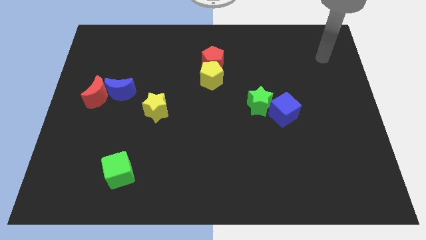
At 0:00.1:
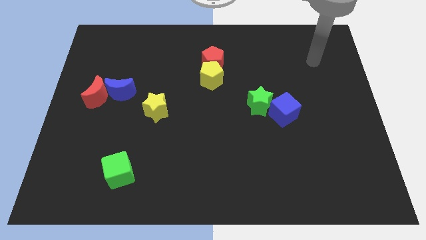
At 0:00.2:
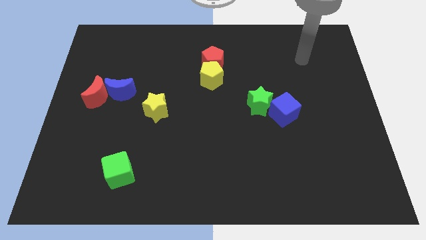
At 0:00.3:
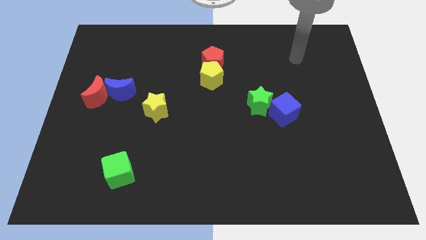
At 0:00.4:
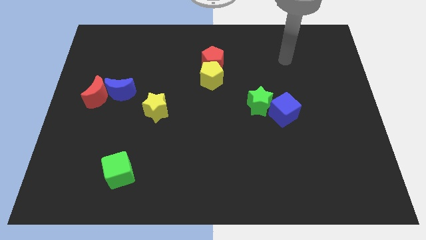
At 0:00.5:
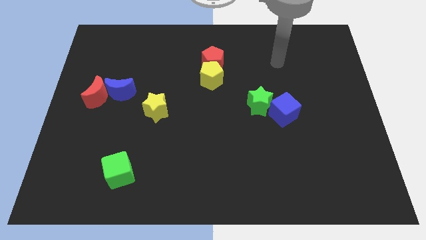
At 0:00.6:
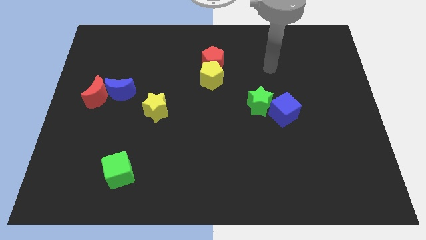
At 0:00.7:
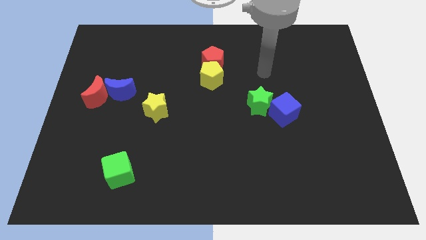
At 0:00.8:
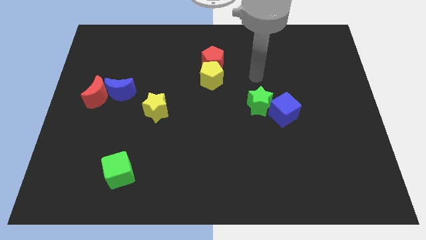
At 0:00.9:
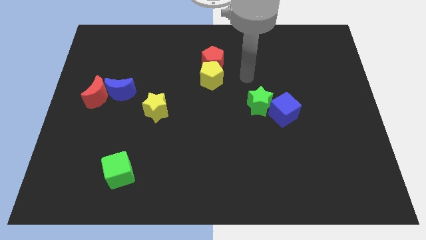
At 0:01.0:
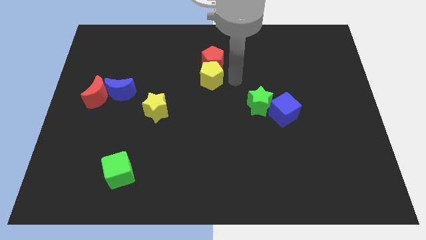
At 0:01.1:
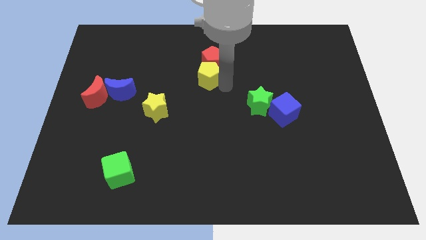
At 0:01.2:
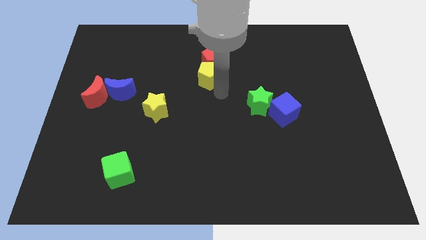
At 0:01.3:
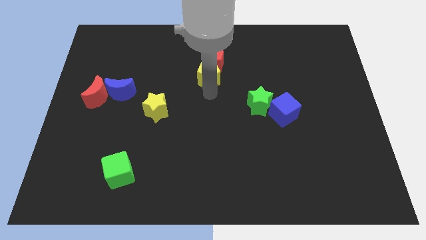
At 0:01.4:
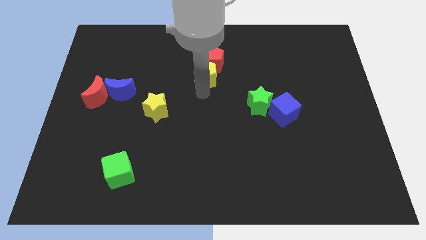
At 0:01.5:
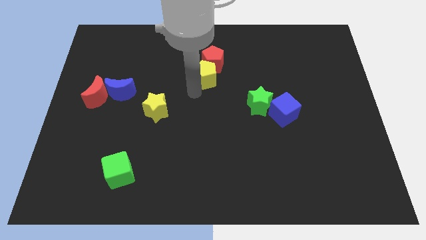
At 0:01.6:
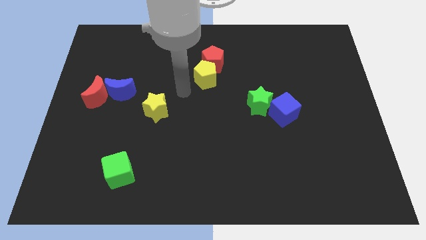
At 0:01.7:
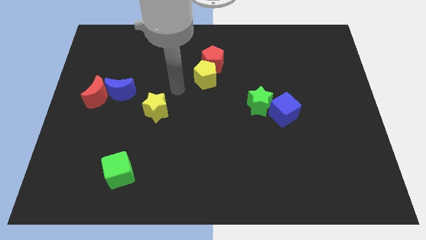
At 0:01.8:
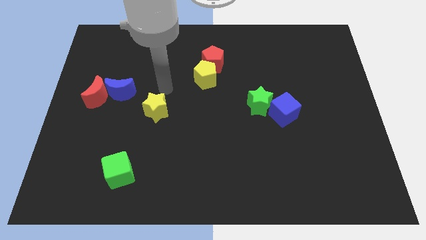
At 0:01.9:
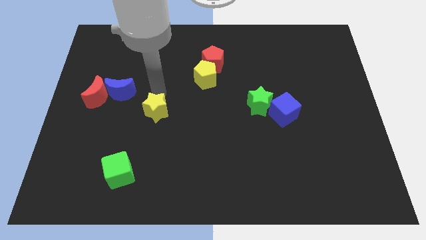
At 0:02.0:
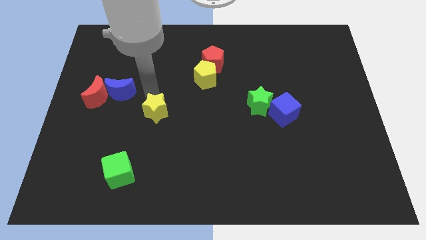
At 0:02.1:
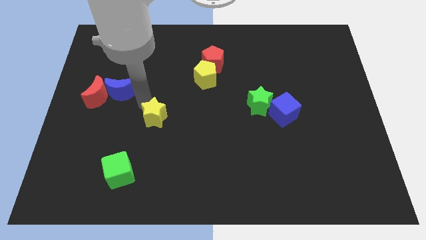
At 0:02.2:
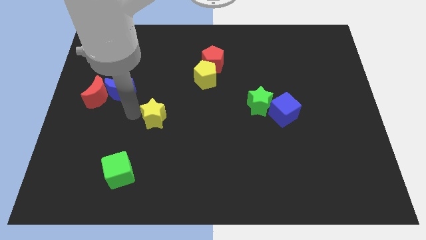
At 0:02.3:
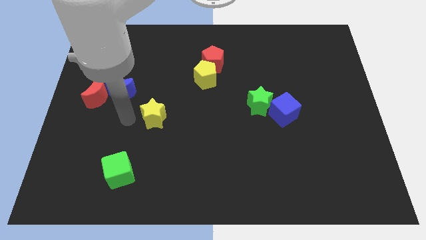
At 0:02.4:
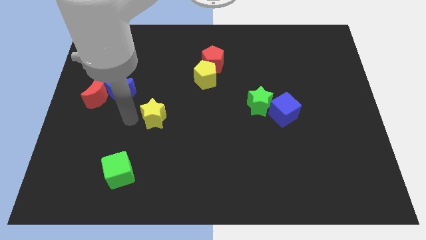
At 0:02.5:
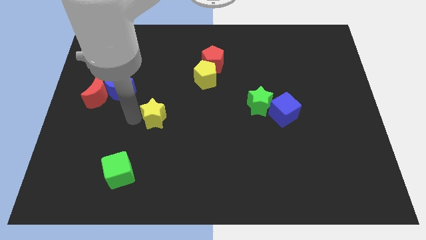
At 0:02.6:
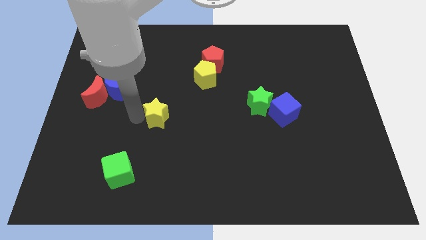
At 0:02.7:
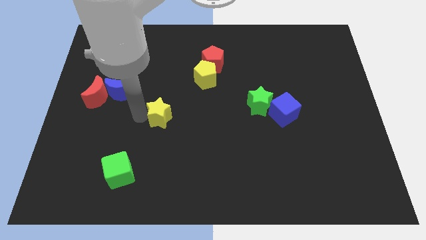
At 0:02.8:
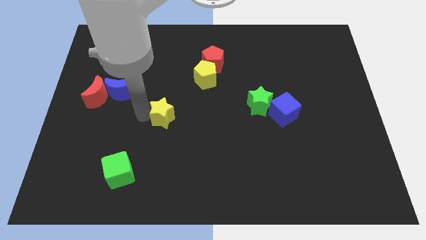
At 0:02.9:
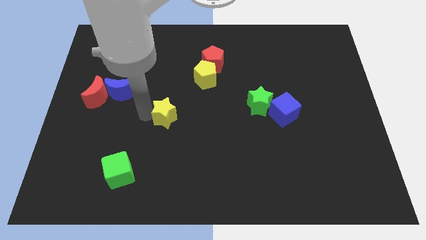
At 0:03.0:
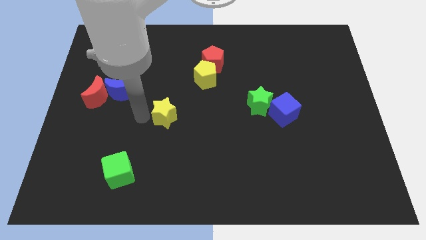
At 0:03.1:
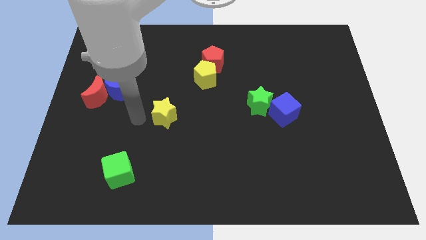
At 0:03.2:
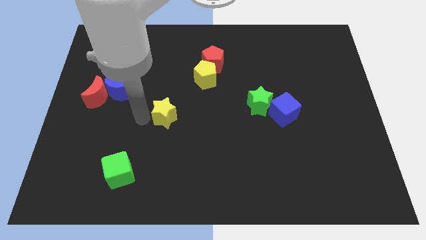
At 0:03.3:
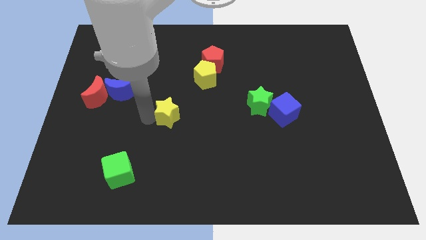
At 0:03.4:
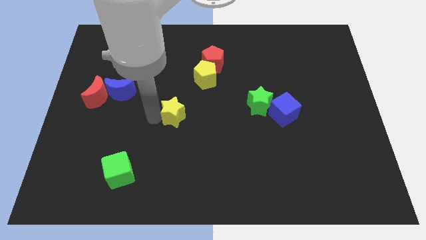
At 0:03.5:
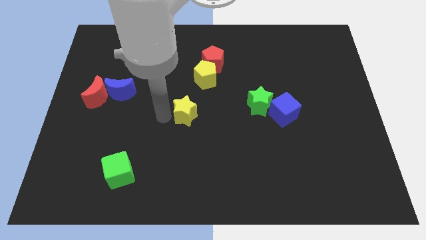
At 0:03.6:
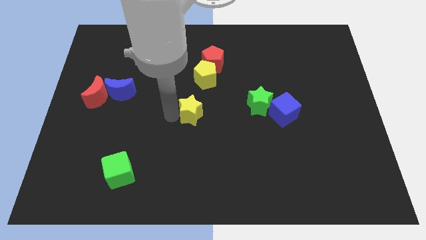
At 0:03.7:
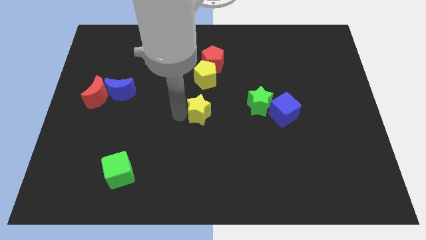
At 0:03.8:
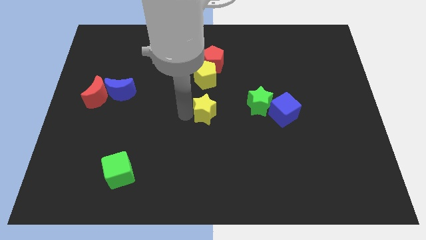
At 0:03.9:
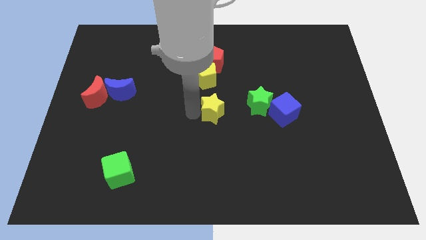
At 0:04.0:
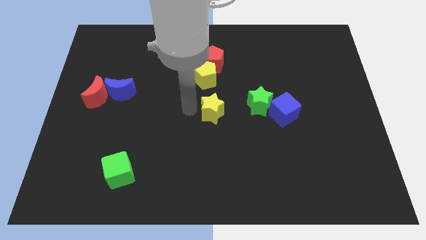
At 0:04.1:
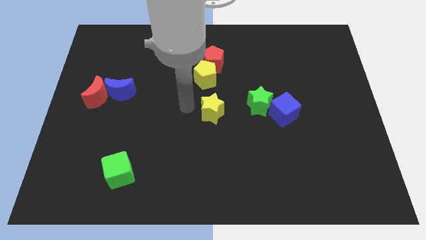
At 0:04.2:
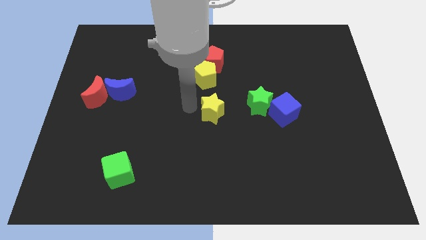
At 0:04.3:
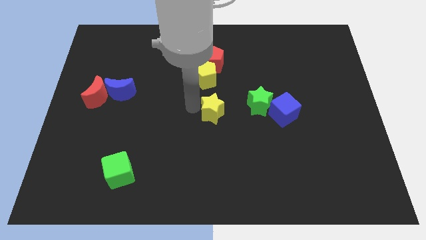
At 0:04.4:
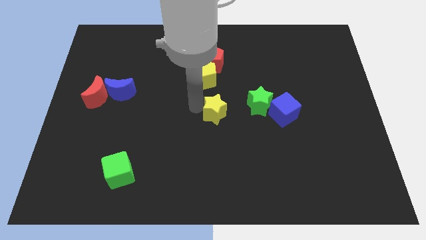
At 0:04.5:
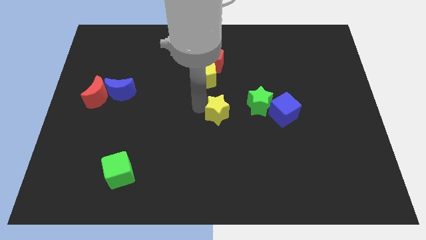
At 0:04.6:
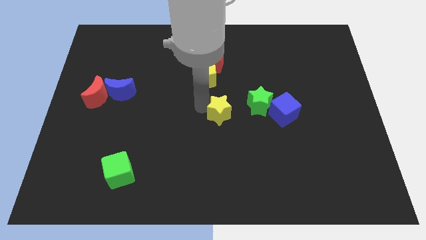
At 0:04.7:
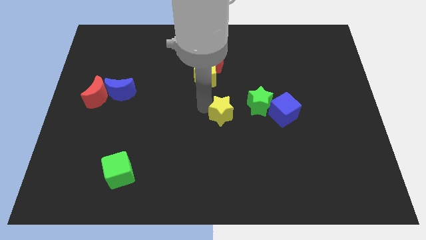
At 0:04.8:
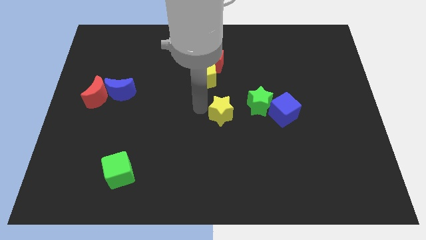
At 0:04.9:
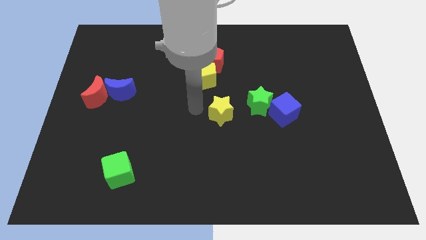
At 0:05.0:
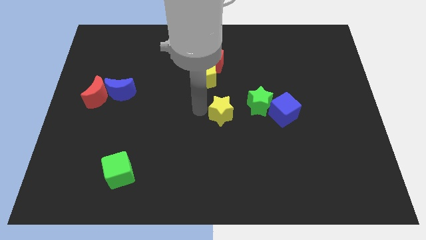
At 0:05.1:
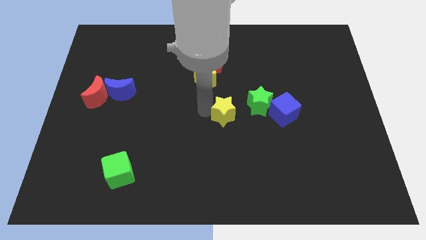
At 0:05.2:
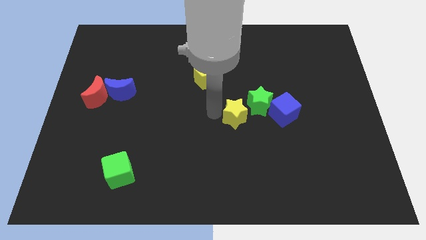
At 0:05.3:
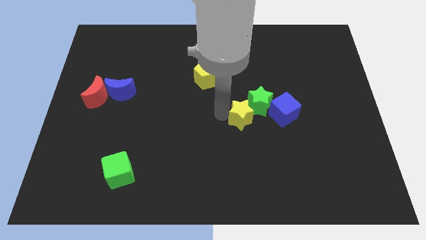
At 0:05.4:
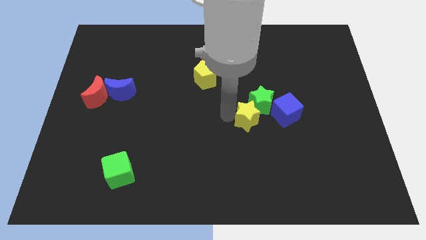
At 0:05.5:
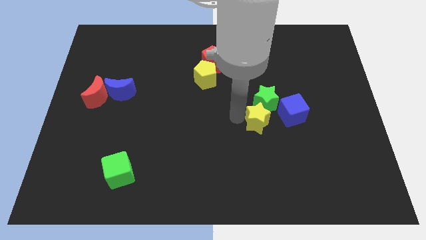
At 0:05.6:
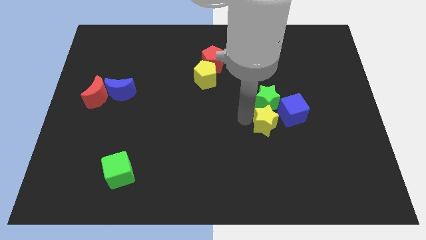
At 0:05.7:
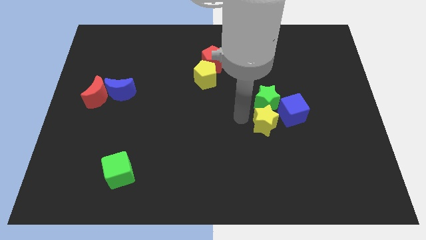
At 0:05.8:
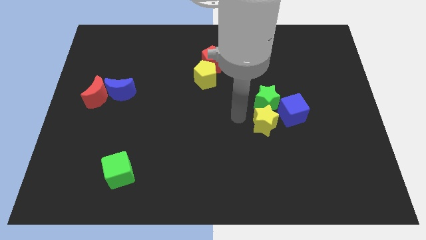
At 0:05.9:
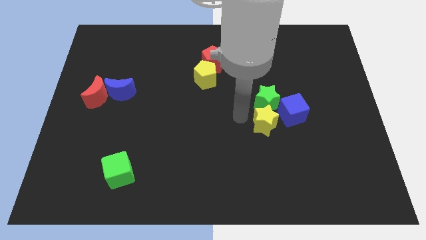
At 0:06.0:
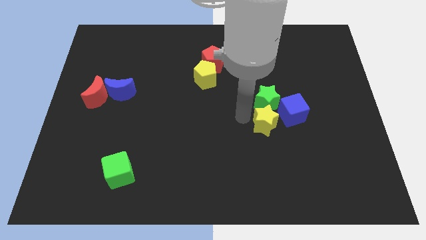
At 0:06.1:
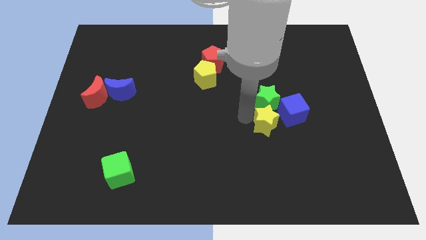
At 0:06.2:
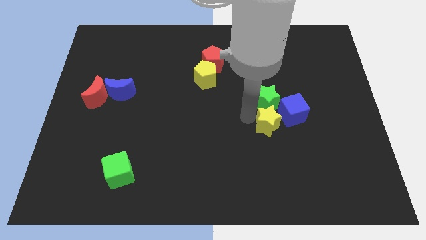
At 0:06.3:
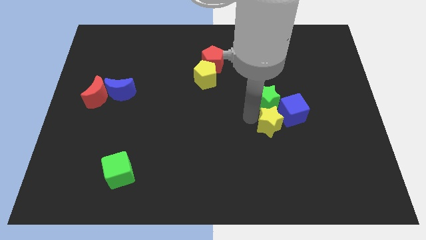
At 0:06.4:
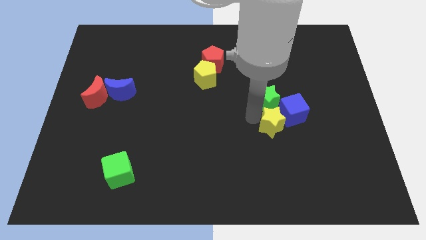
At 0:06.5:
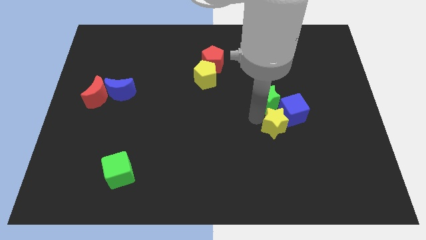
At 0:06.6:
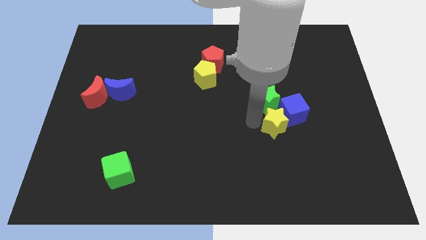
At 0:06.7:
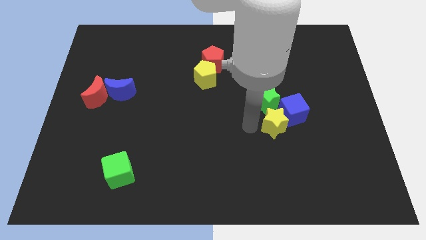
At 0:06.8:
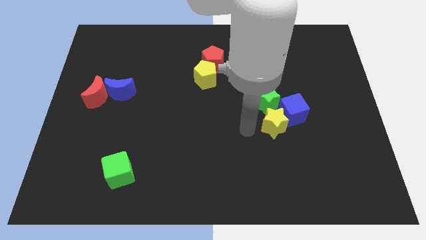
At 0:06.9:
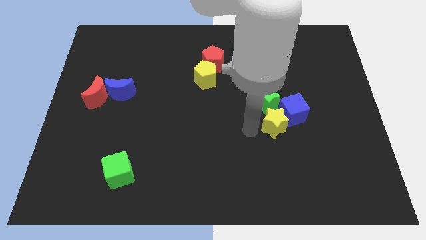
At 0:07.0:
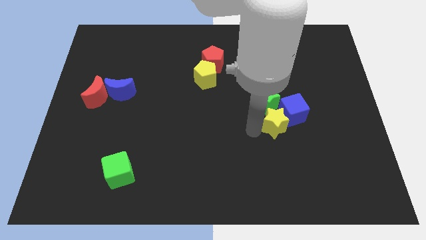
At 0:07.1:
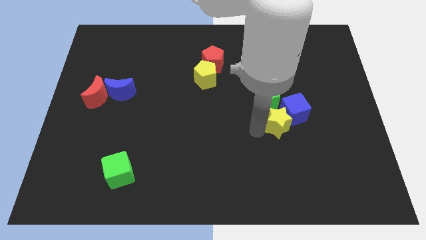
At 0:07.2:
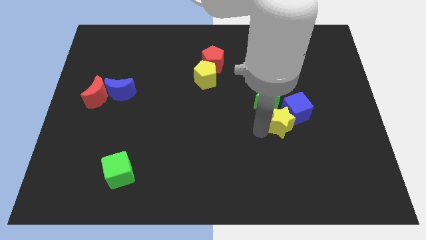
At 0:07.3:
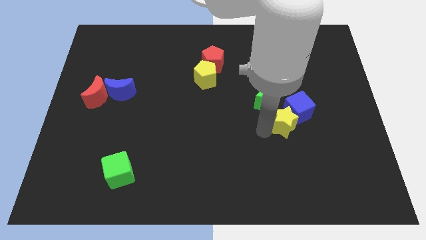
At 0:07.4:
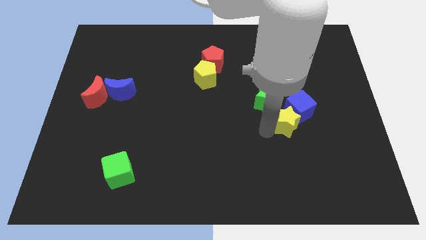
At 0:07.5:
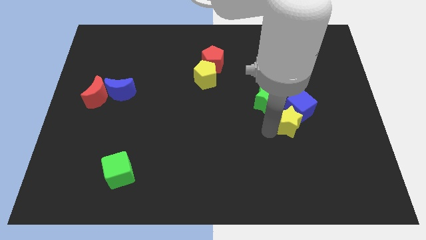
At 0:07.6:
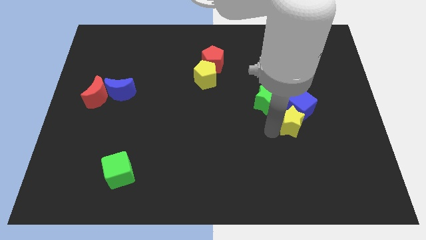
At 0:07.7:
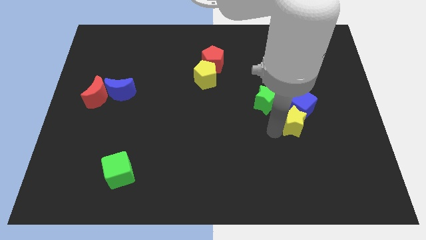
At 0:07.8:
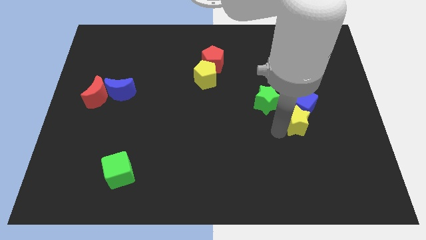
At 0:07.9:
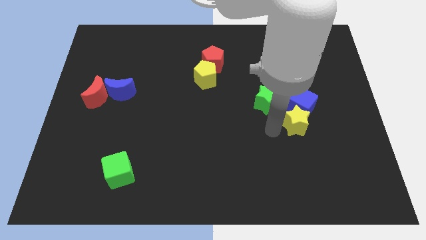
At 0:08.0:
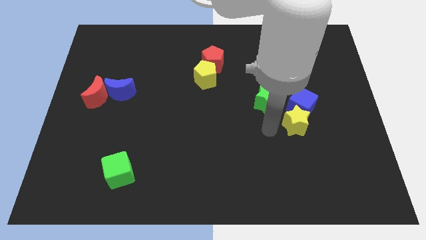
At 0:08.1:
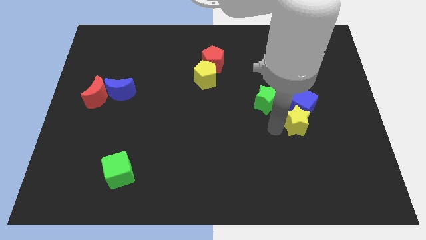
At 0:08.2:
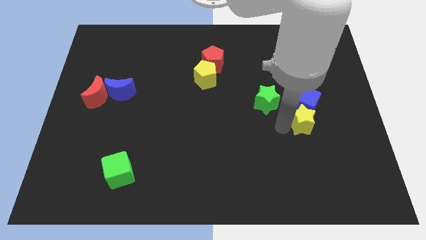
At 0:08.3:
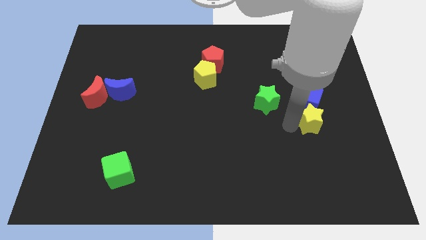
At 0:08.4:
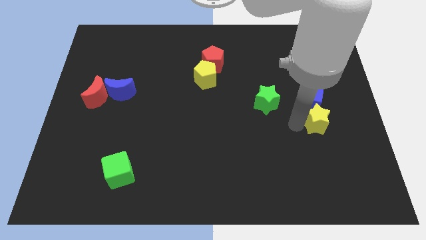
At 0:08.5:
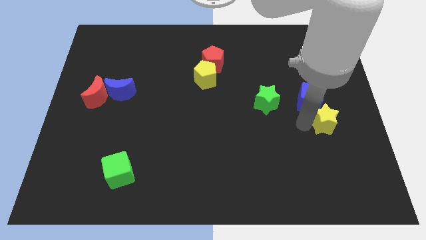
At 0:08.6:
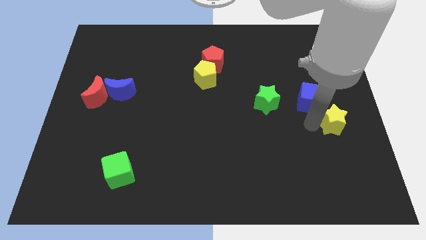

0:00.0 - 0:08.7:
put the yellow star to the right side of the board
